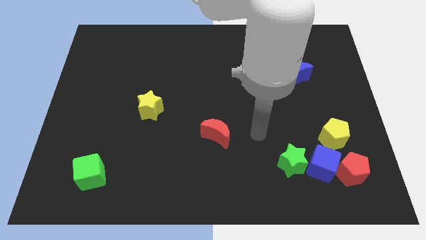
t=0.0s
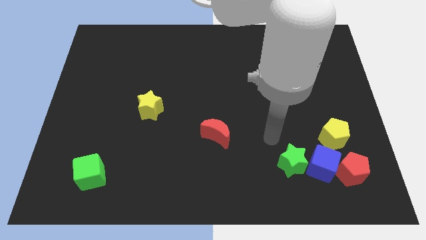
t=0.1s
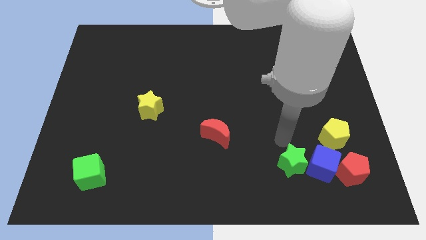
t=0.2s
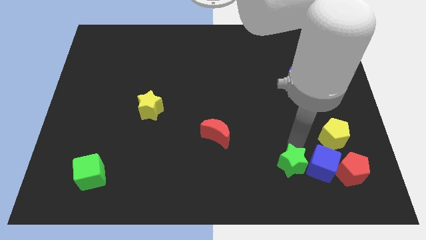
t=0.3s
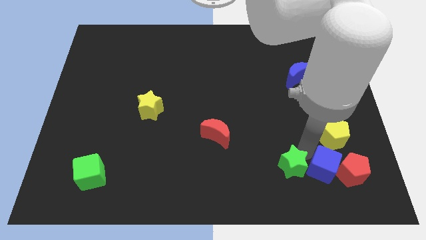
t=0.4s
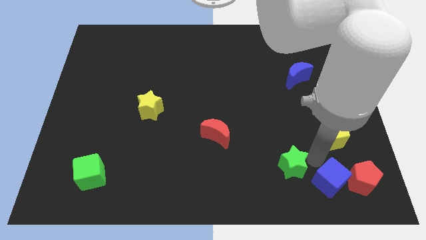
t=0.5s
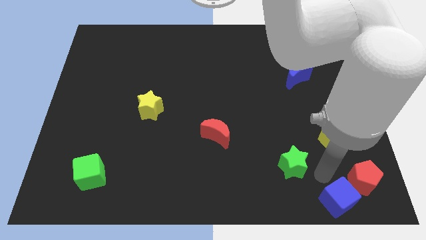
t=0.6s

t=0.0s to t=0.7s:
move the green star away from the blue cube

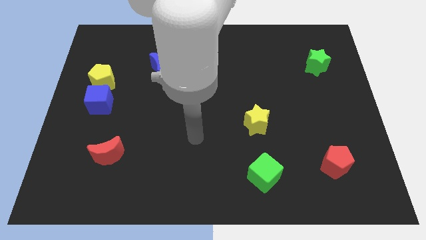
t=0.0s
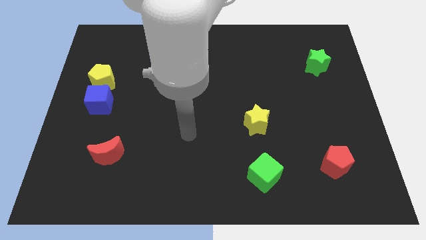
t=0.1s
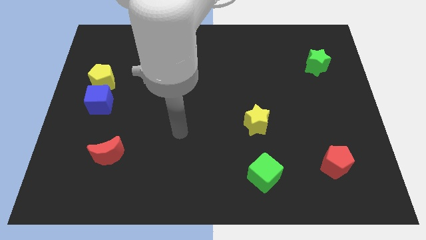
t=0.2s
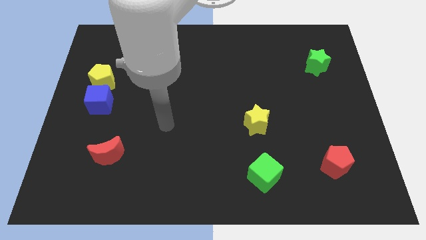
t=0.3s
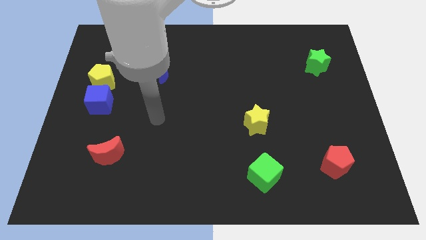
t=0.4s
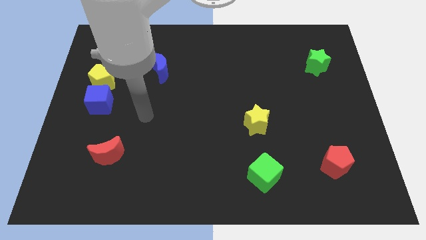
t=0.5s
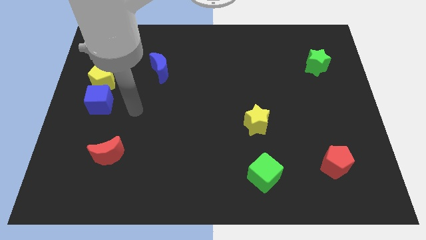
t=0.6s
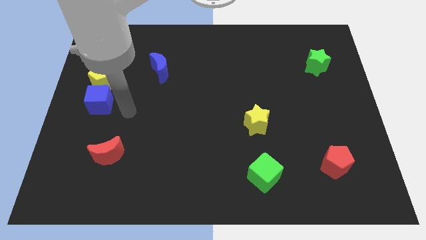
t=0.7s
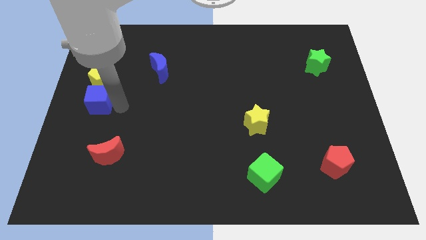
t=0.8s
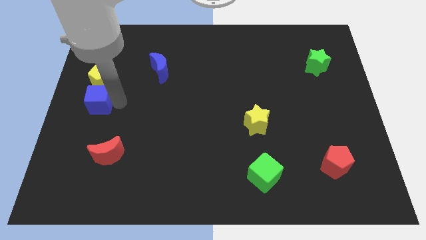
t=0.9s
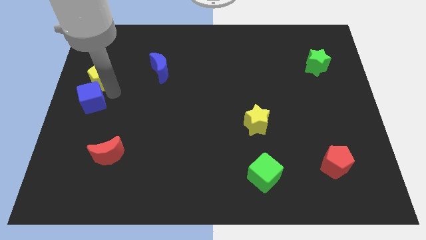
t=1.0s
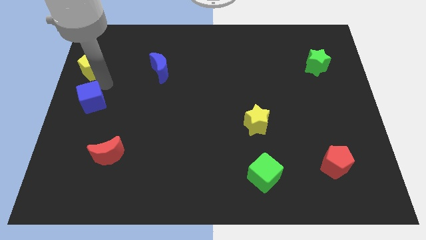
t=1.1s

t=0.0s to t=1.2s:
separate the blue cube from the yellow pentagon

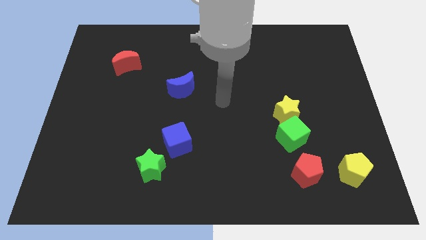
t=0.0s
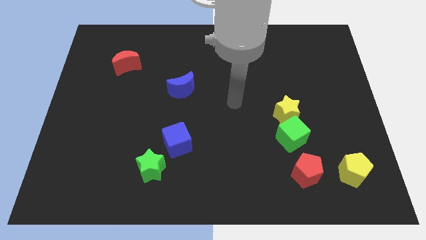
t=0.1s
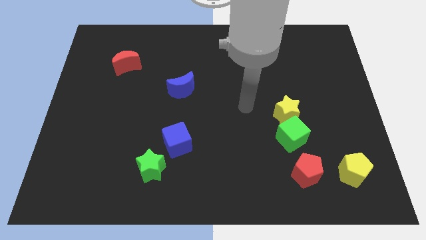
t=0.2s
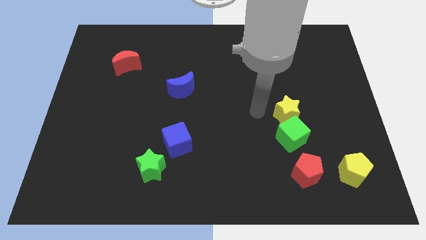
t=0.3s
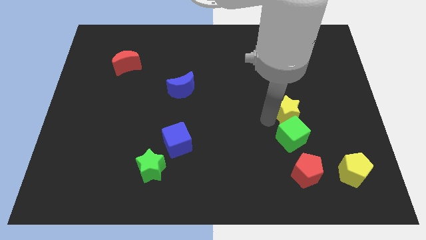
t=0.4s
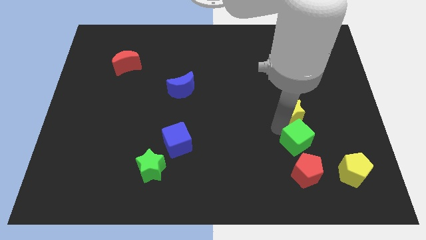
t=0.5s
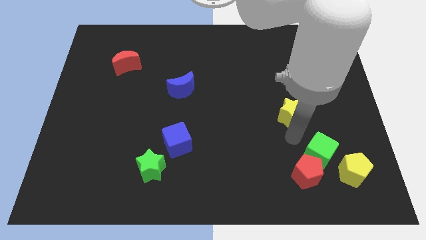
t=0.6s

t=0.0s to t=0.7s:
separate the yellow star from the green cube

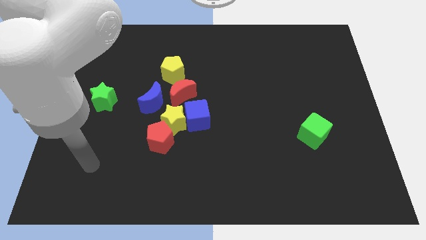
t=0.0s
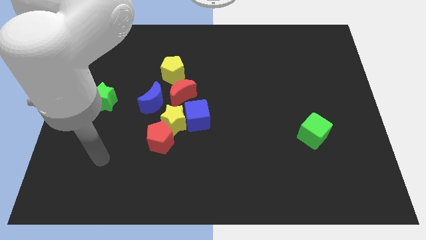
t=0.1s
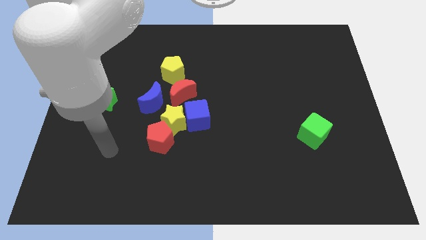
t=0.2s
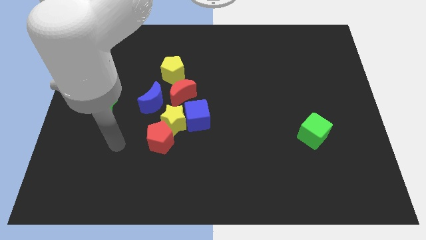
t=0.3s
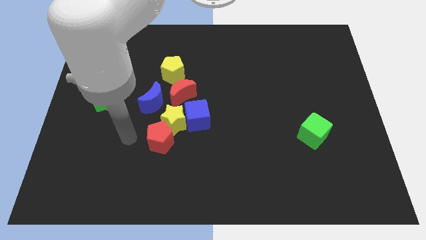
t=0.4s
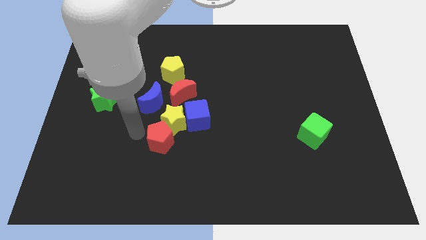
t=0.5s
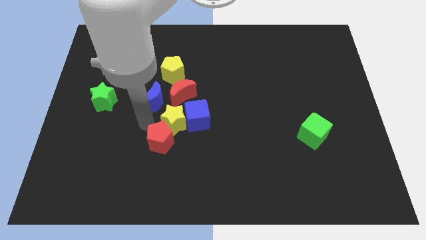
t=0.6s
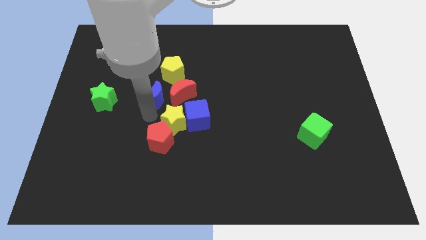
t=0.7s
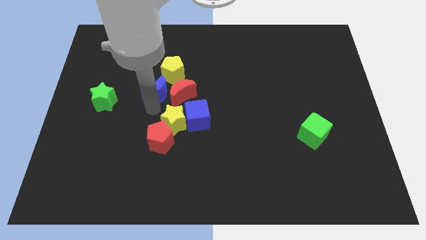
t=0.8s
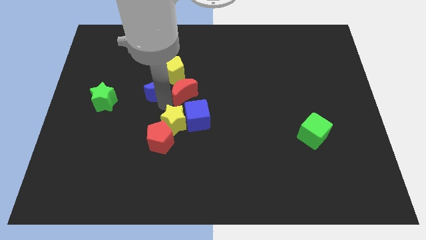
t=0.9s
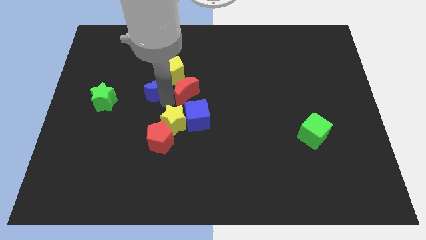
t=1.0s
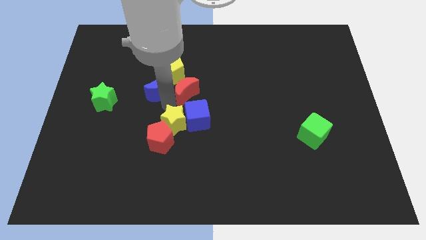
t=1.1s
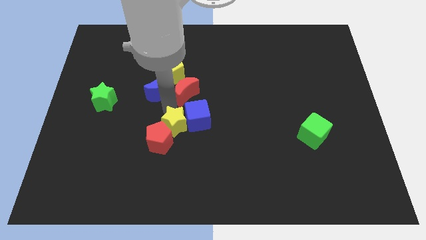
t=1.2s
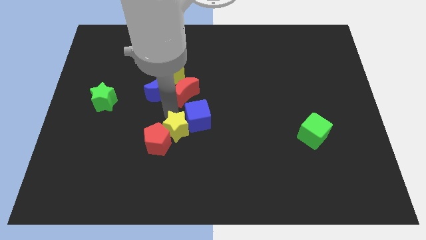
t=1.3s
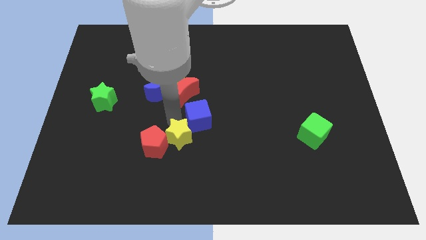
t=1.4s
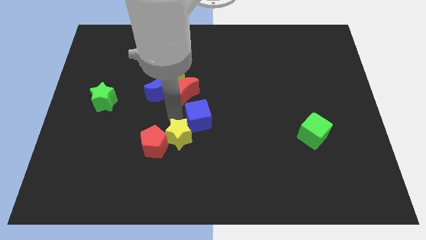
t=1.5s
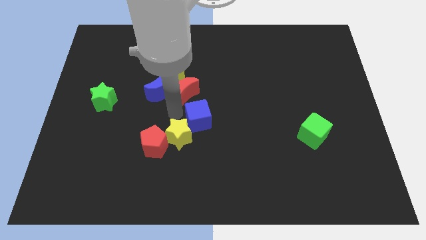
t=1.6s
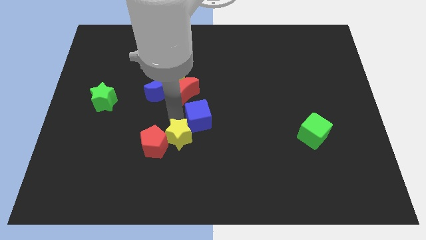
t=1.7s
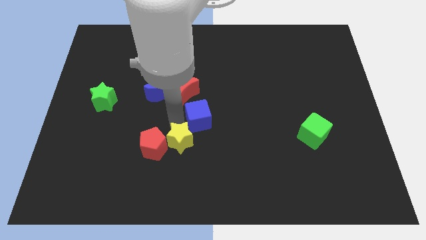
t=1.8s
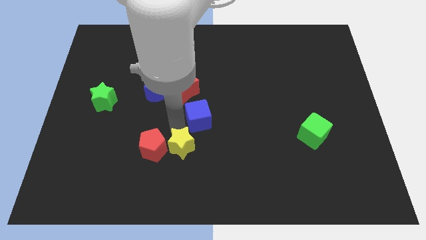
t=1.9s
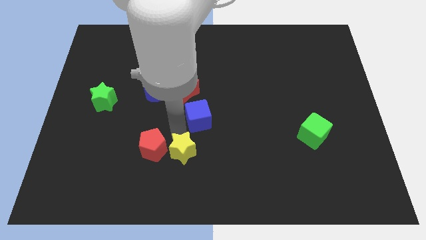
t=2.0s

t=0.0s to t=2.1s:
pull the yellow star apart from the group of blocks

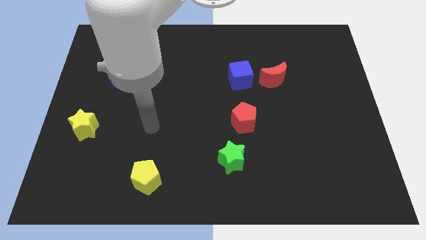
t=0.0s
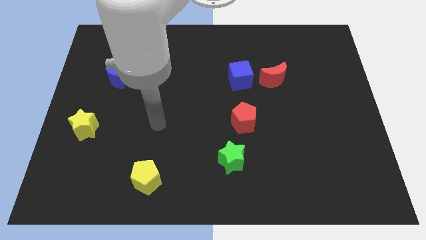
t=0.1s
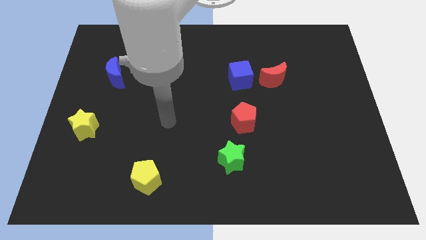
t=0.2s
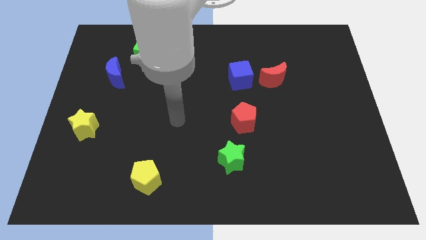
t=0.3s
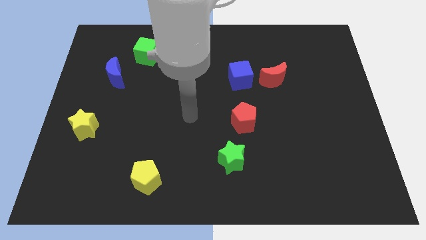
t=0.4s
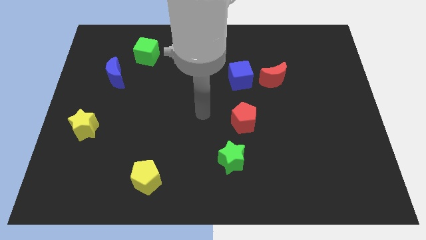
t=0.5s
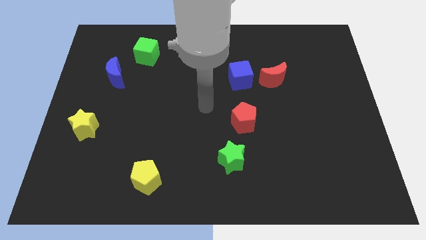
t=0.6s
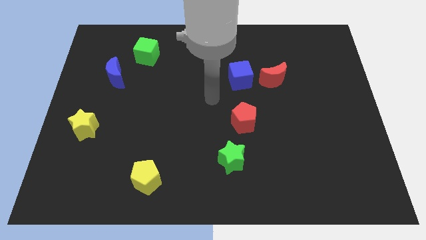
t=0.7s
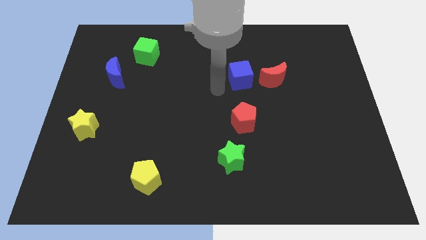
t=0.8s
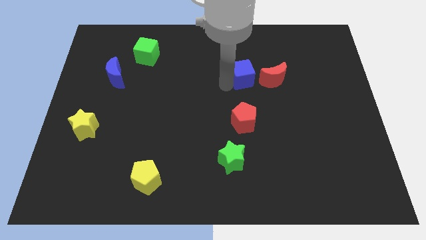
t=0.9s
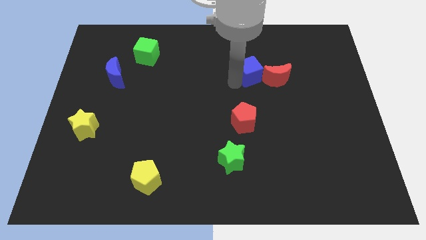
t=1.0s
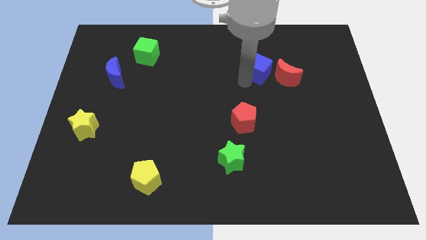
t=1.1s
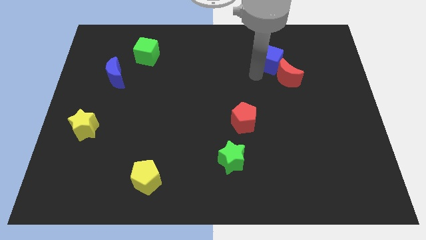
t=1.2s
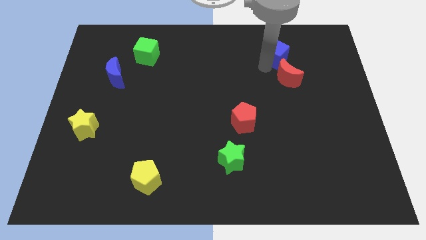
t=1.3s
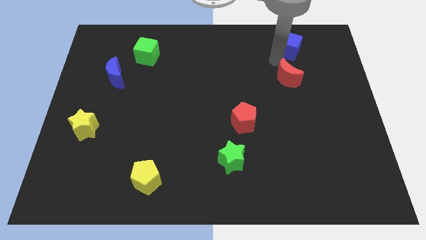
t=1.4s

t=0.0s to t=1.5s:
separate the red moon from the blue cube

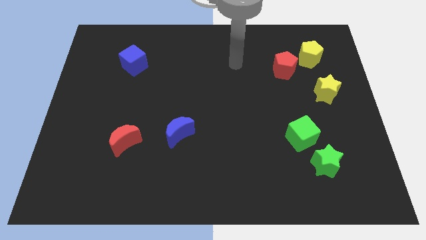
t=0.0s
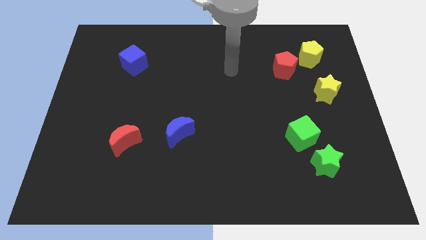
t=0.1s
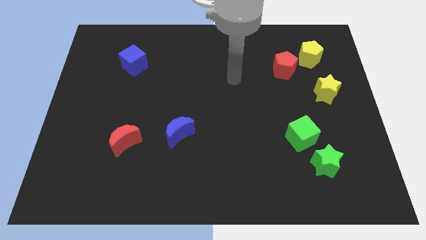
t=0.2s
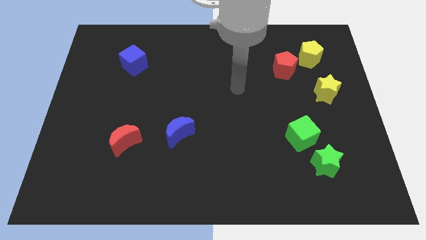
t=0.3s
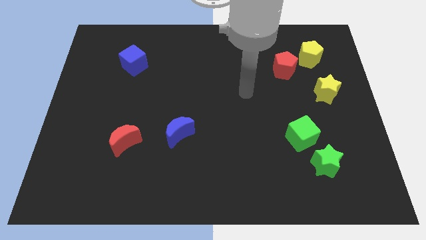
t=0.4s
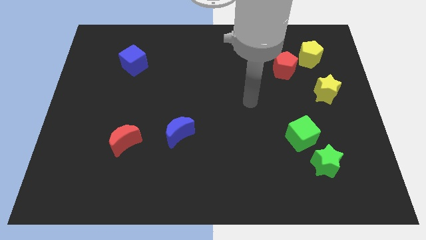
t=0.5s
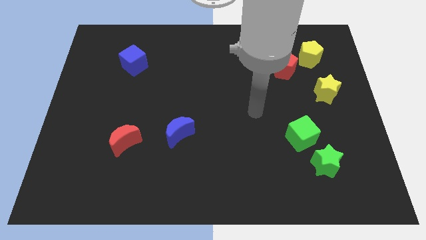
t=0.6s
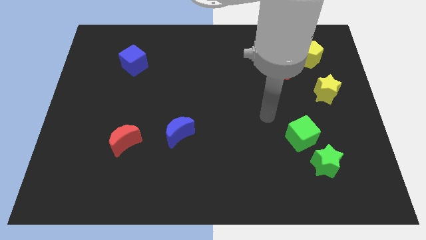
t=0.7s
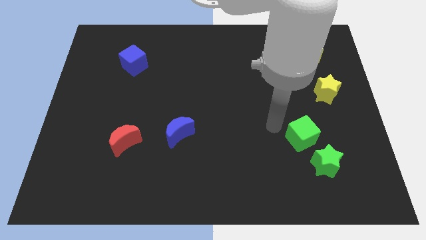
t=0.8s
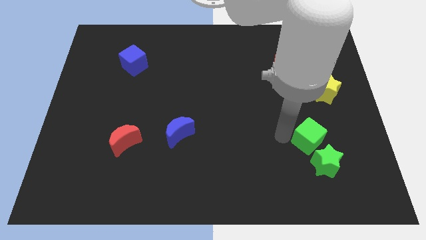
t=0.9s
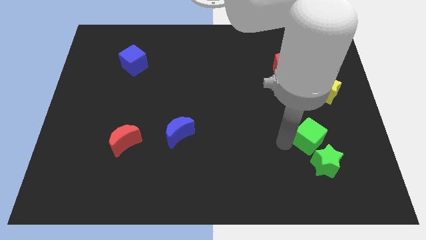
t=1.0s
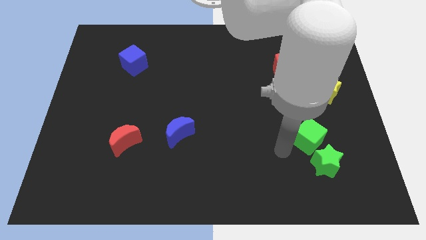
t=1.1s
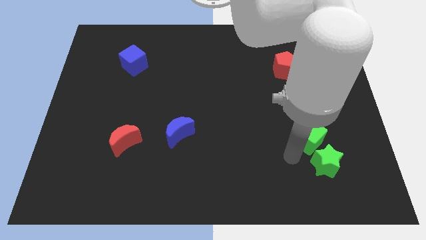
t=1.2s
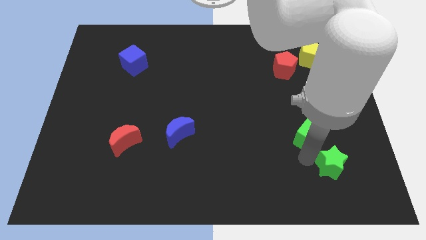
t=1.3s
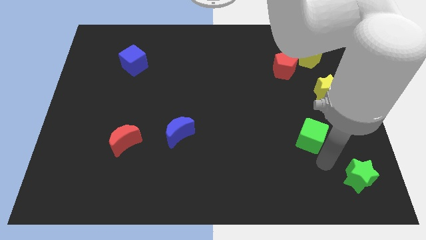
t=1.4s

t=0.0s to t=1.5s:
move the green cube away from the green star

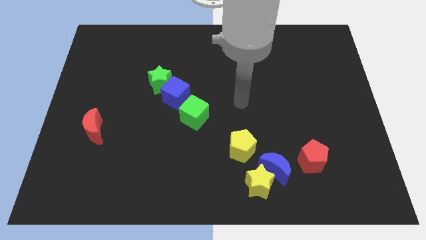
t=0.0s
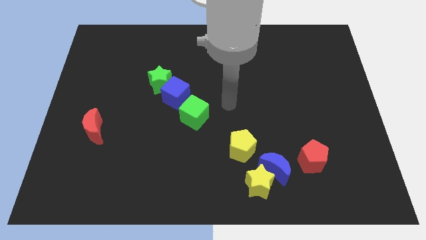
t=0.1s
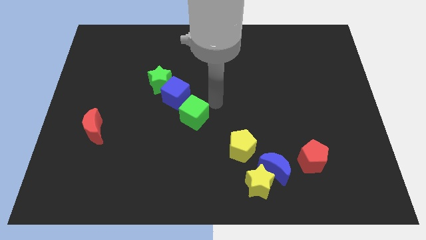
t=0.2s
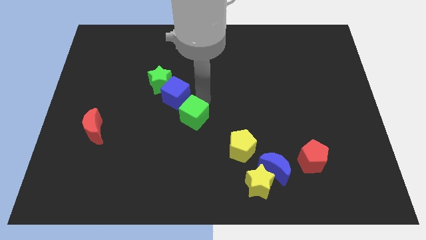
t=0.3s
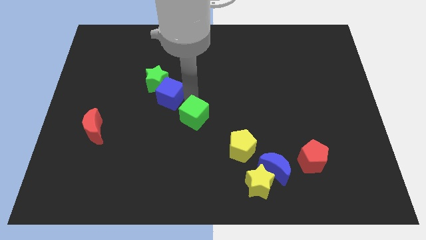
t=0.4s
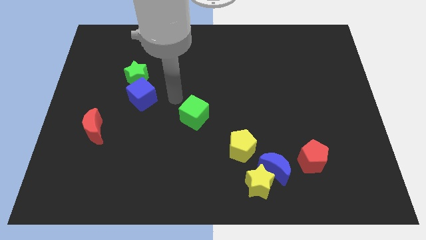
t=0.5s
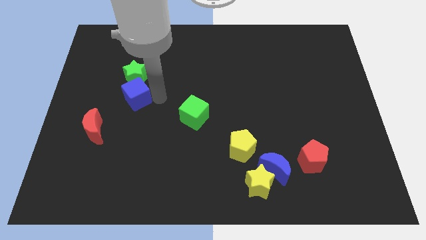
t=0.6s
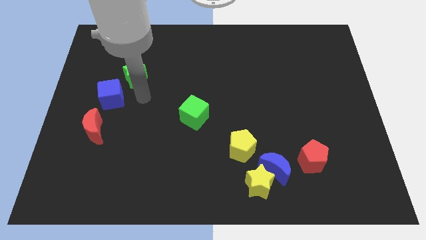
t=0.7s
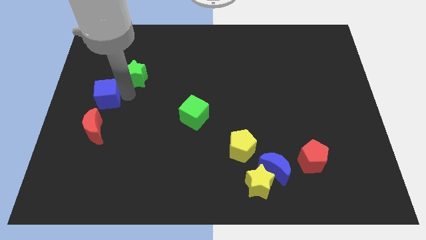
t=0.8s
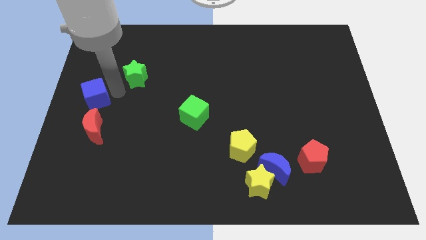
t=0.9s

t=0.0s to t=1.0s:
separate the green star from the blue cube

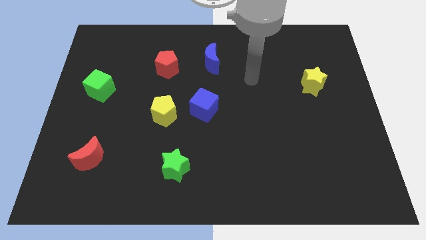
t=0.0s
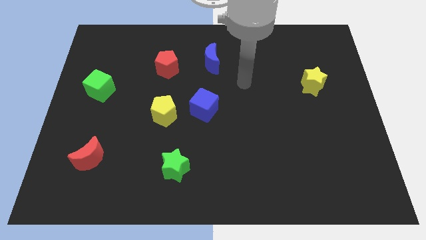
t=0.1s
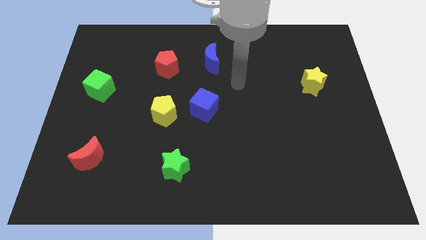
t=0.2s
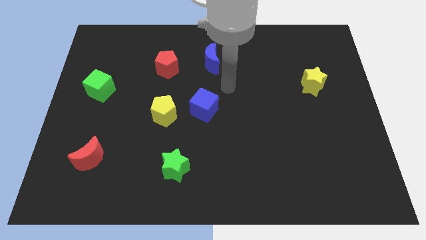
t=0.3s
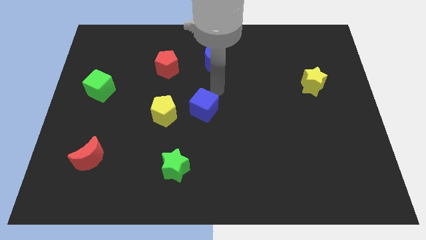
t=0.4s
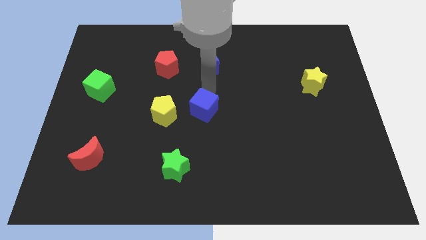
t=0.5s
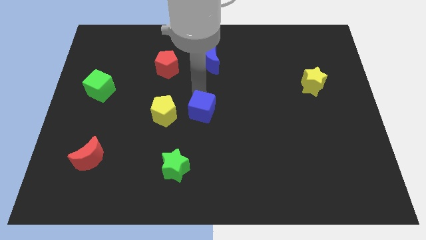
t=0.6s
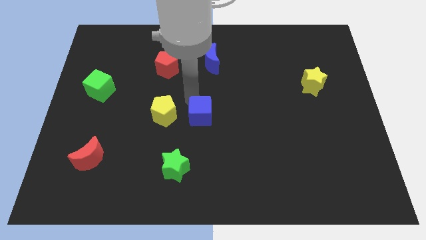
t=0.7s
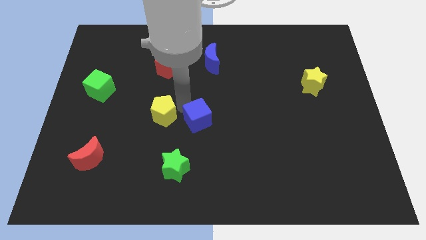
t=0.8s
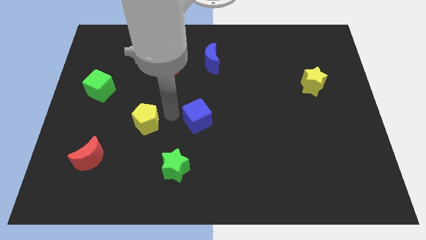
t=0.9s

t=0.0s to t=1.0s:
pull the blue cube apart from the yellow pentagon
